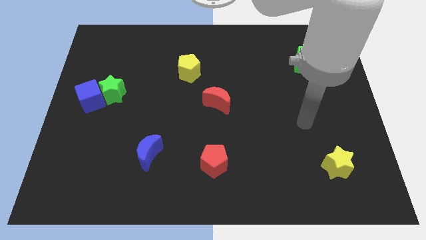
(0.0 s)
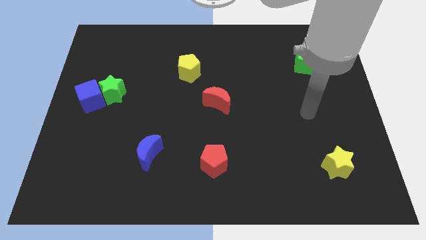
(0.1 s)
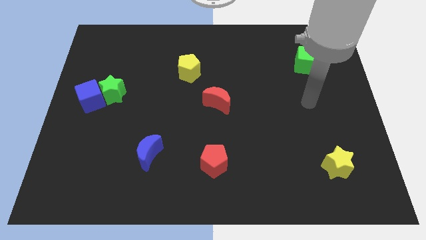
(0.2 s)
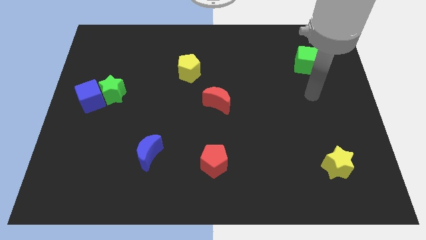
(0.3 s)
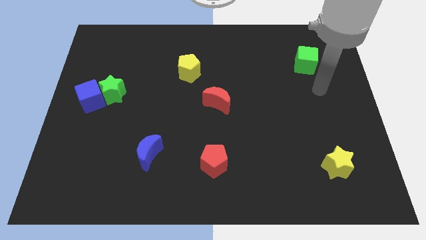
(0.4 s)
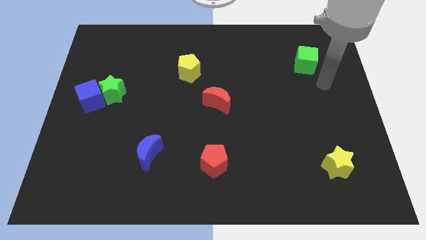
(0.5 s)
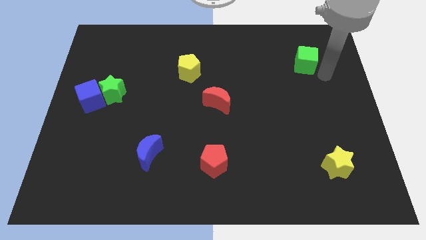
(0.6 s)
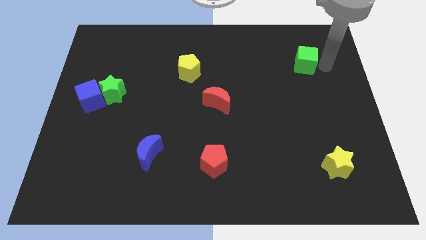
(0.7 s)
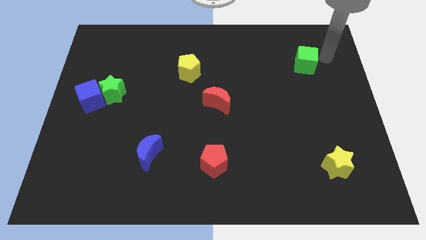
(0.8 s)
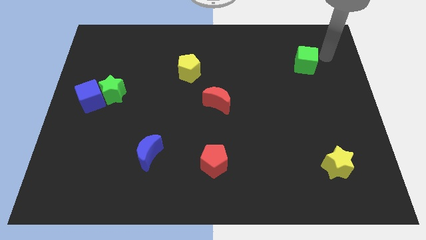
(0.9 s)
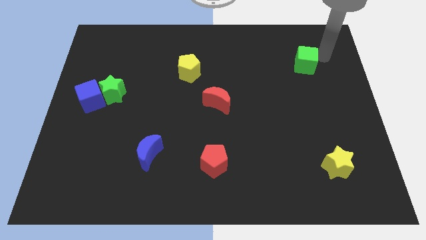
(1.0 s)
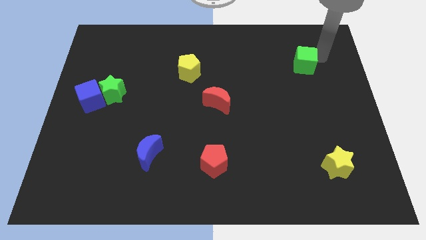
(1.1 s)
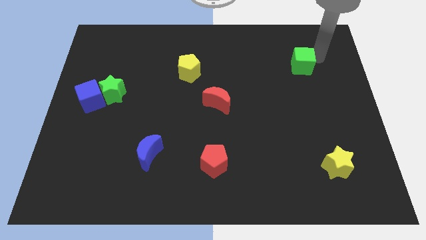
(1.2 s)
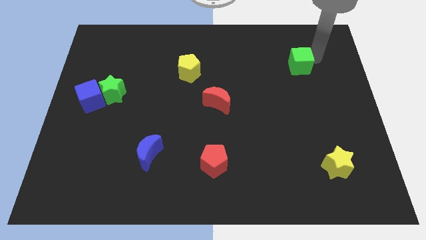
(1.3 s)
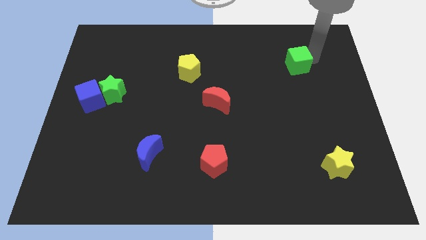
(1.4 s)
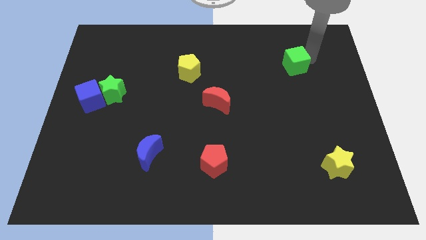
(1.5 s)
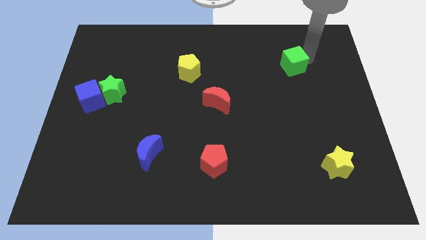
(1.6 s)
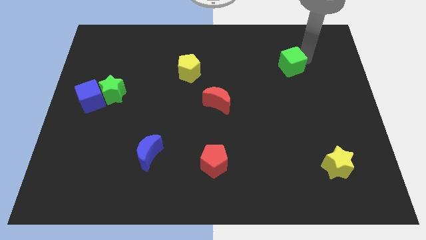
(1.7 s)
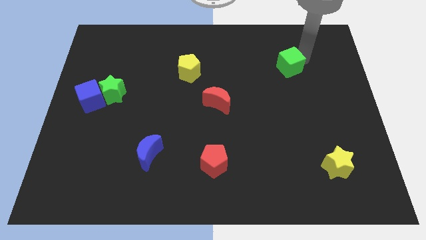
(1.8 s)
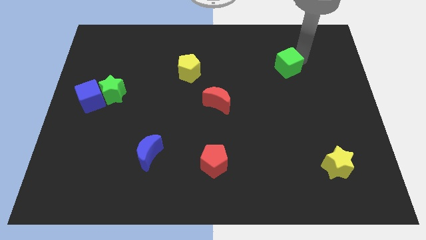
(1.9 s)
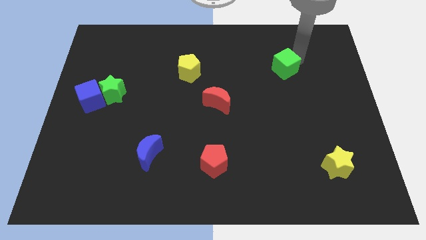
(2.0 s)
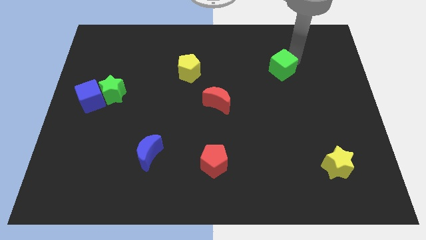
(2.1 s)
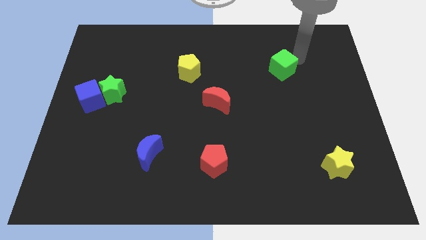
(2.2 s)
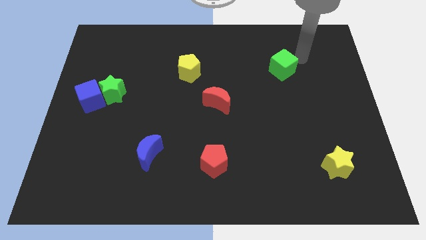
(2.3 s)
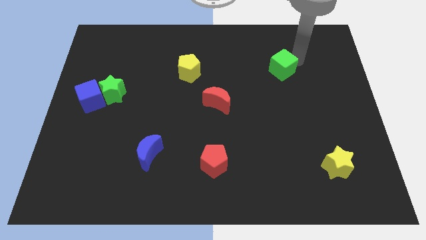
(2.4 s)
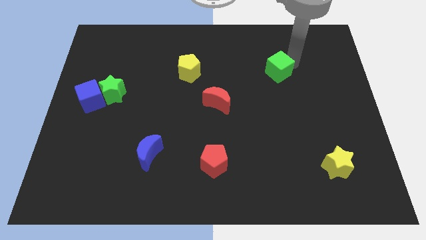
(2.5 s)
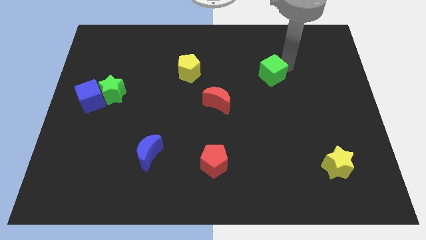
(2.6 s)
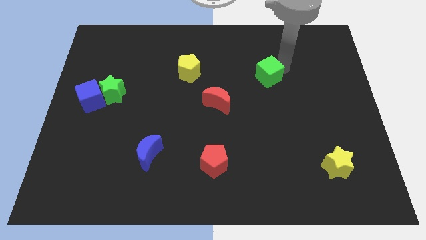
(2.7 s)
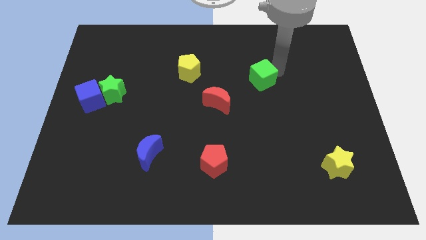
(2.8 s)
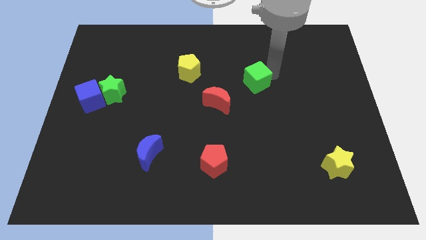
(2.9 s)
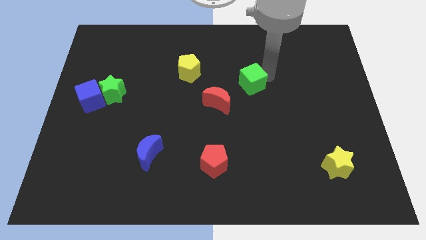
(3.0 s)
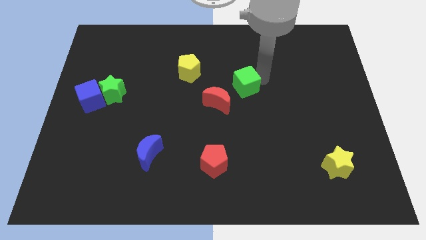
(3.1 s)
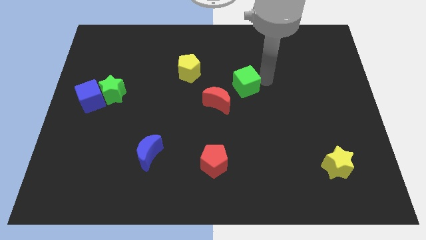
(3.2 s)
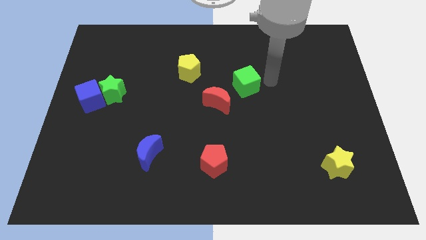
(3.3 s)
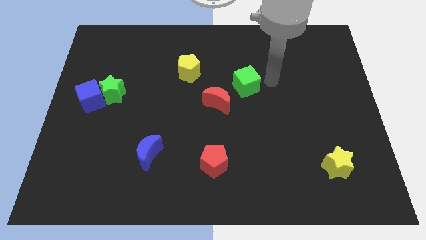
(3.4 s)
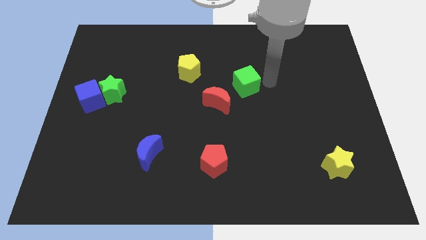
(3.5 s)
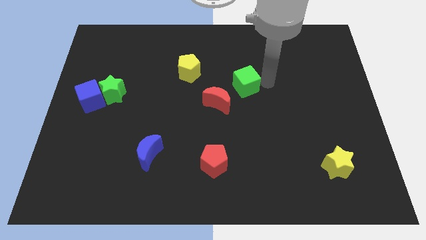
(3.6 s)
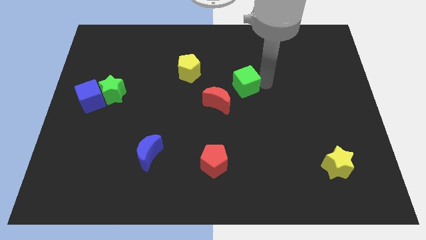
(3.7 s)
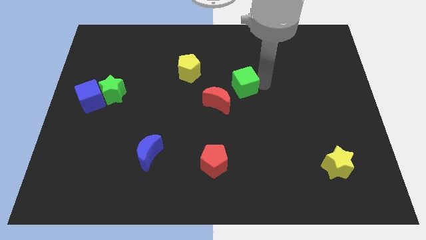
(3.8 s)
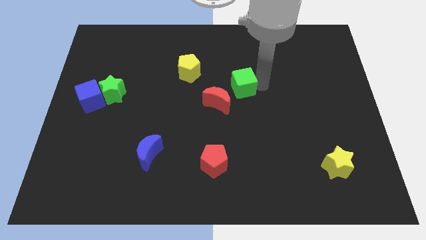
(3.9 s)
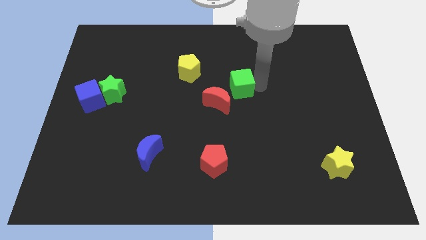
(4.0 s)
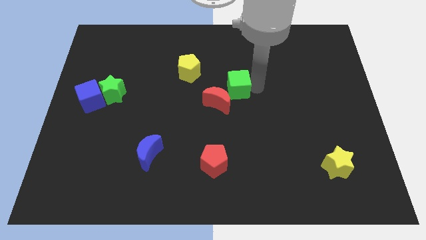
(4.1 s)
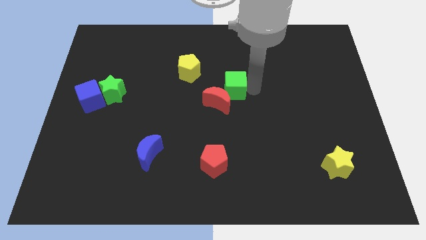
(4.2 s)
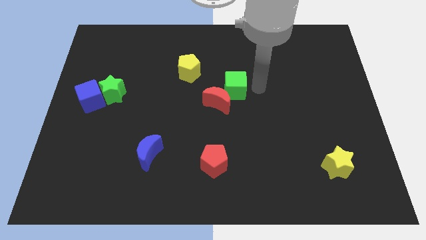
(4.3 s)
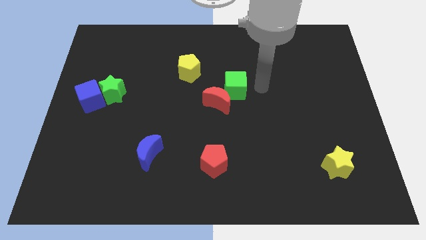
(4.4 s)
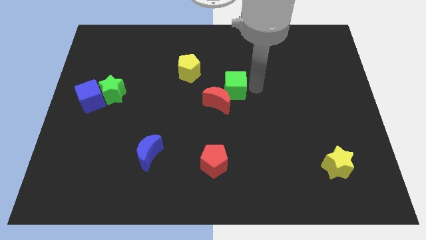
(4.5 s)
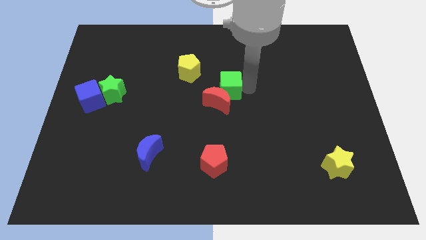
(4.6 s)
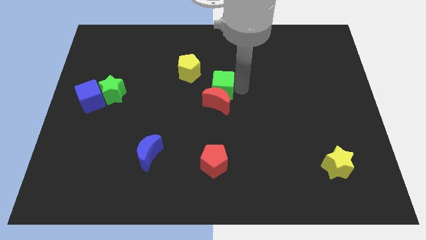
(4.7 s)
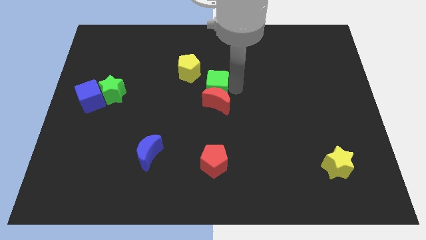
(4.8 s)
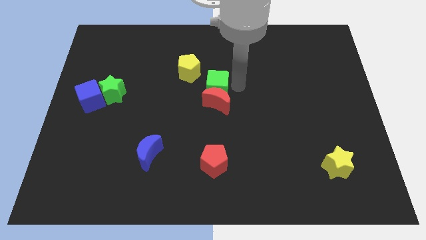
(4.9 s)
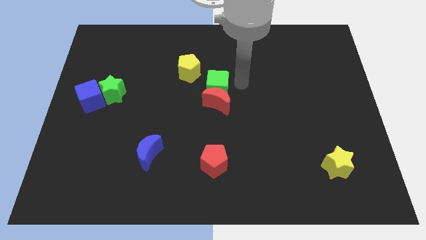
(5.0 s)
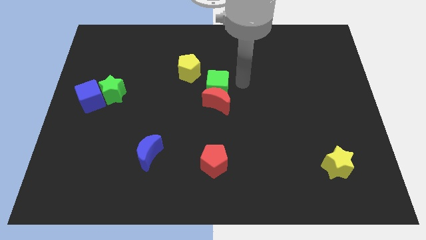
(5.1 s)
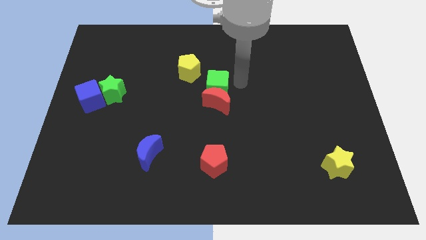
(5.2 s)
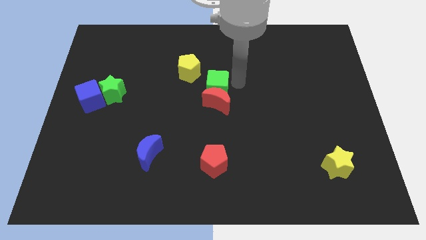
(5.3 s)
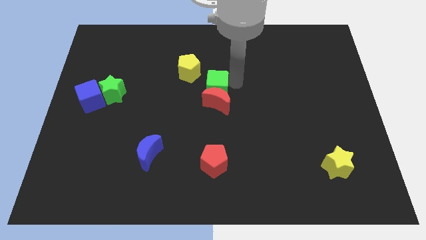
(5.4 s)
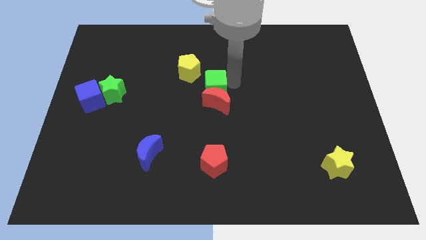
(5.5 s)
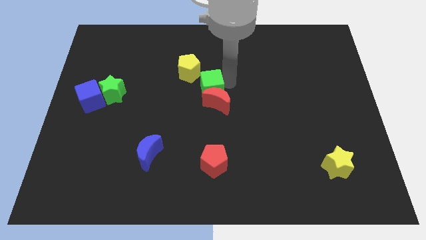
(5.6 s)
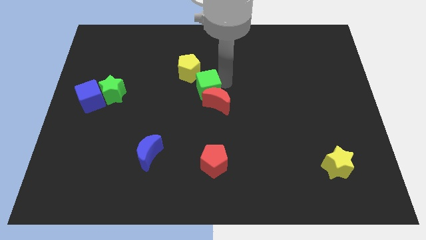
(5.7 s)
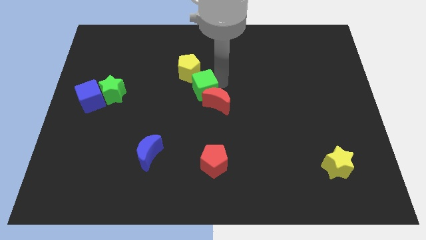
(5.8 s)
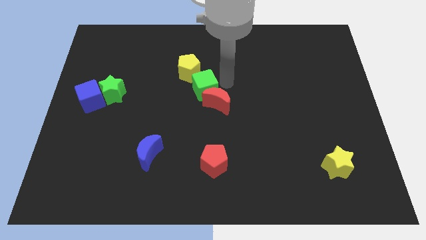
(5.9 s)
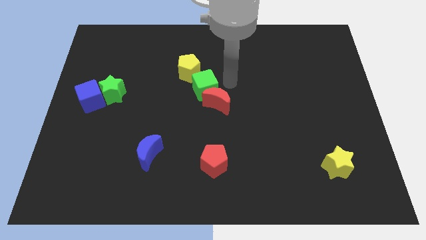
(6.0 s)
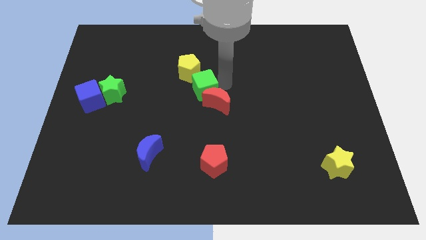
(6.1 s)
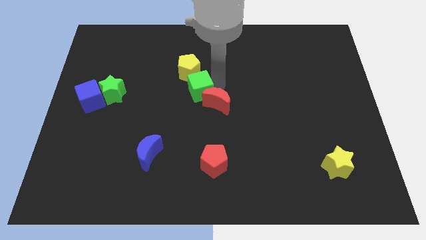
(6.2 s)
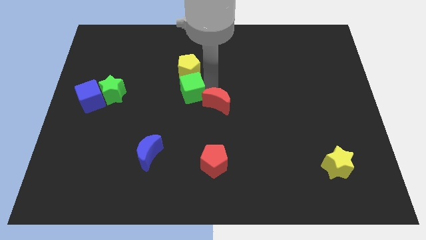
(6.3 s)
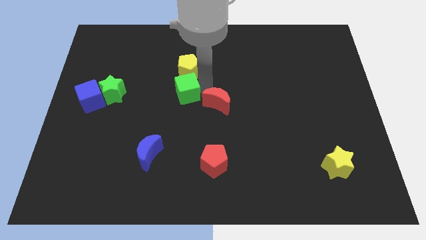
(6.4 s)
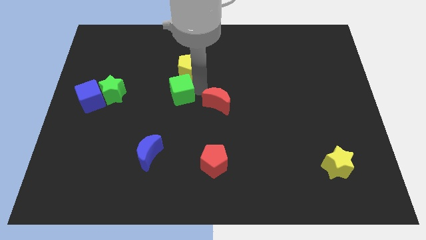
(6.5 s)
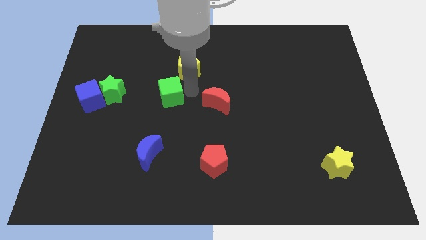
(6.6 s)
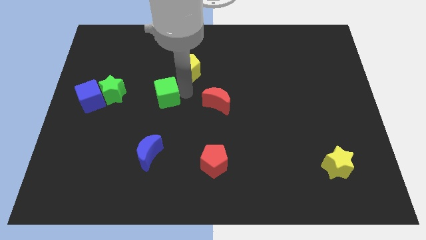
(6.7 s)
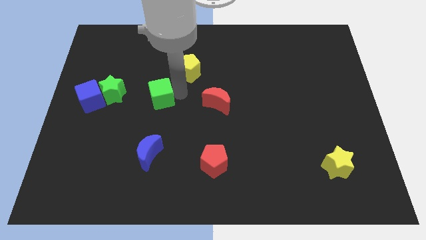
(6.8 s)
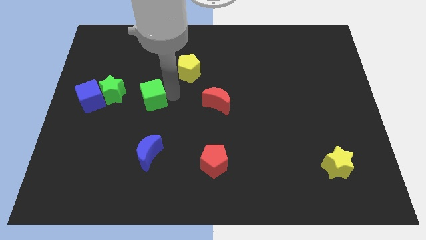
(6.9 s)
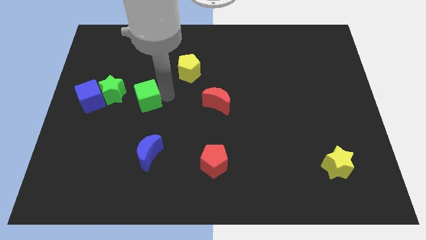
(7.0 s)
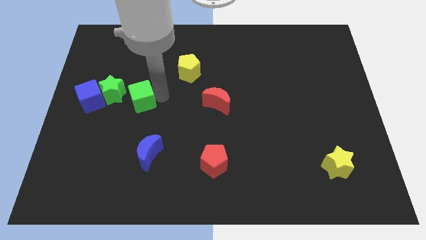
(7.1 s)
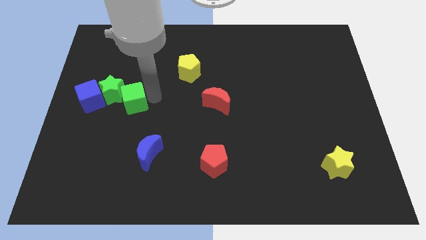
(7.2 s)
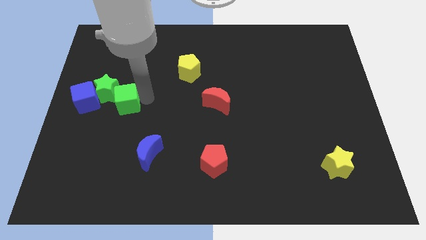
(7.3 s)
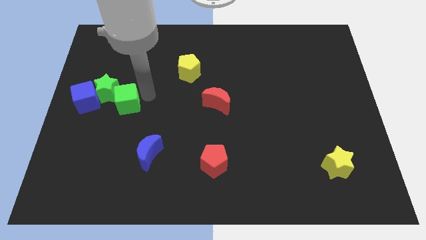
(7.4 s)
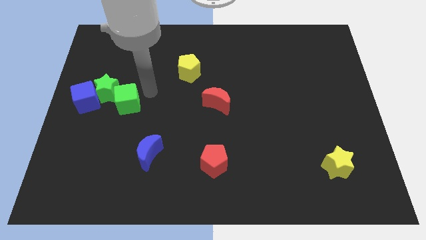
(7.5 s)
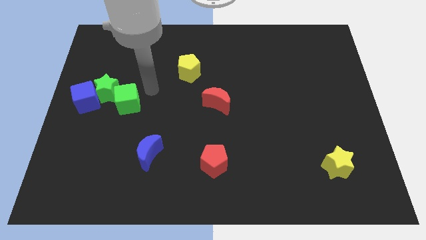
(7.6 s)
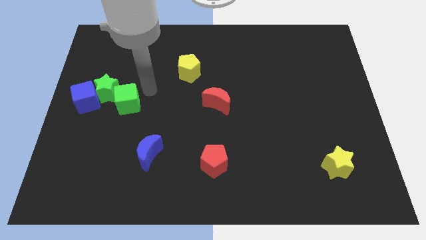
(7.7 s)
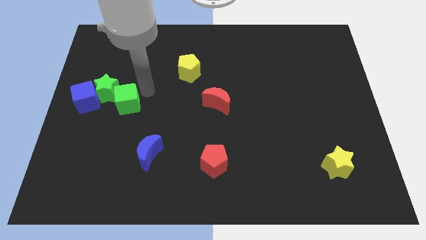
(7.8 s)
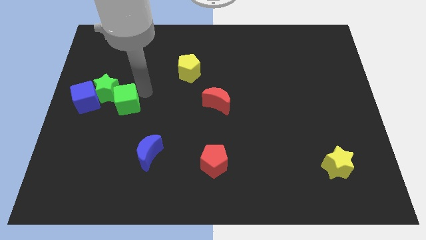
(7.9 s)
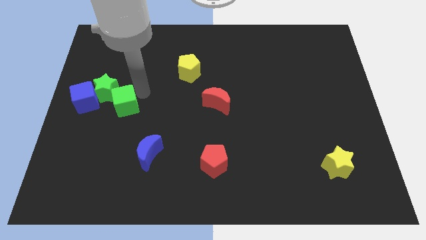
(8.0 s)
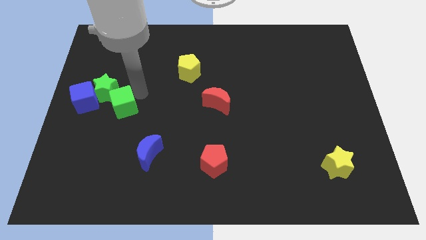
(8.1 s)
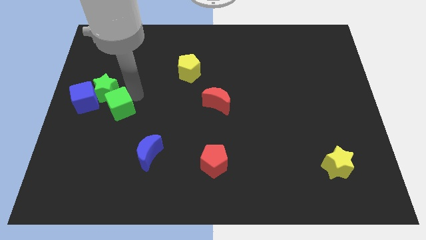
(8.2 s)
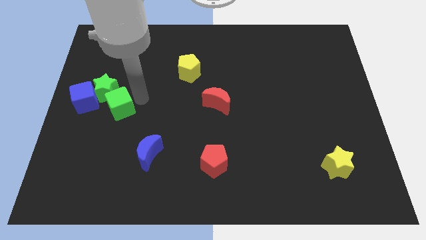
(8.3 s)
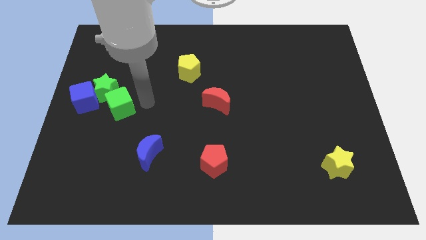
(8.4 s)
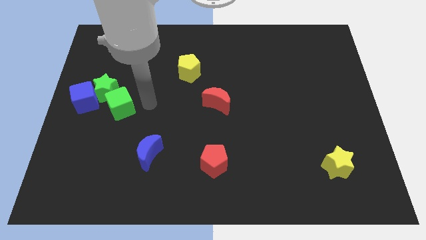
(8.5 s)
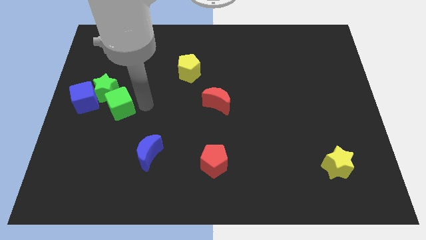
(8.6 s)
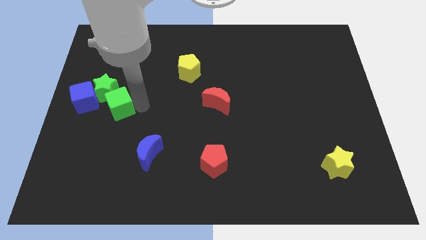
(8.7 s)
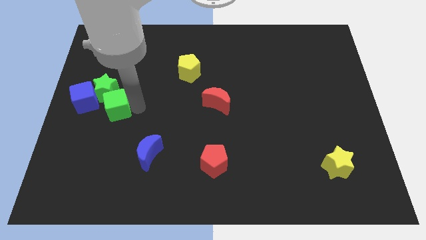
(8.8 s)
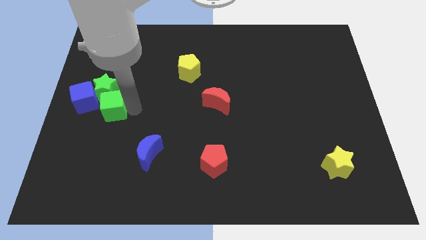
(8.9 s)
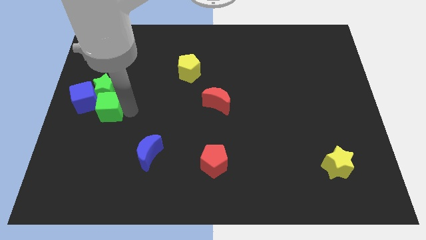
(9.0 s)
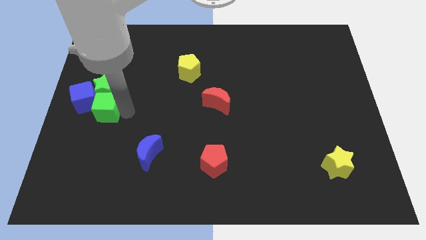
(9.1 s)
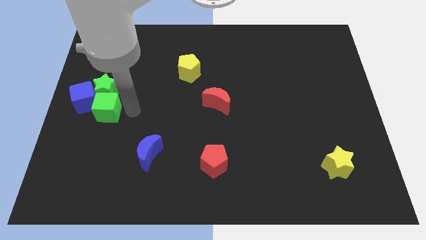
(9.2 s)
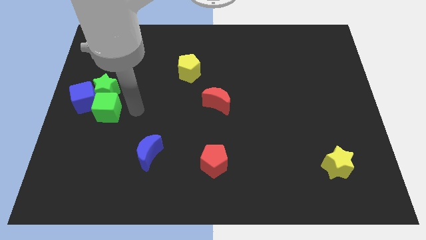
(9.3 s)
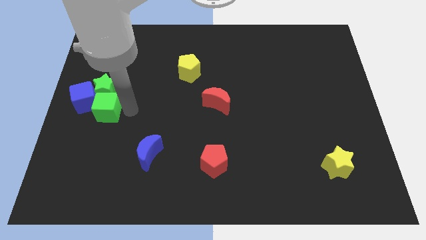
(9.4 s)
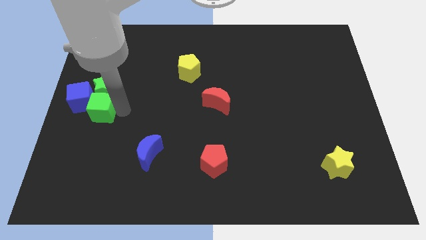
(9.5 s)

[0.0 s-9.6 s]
put the green cube to the center left
